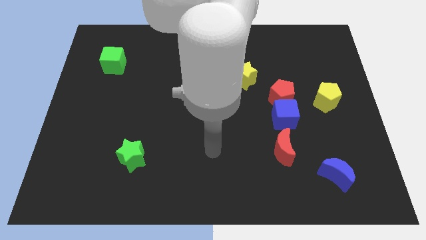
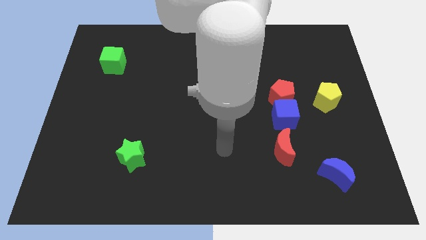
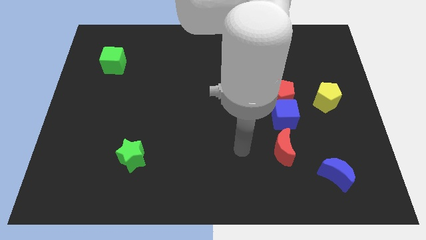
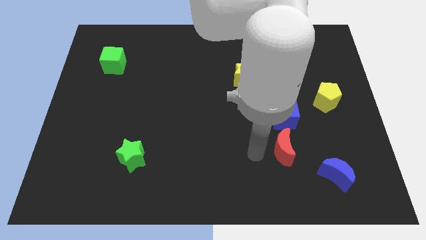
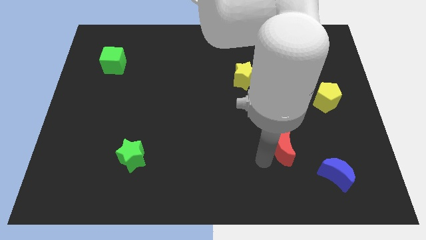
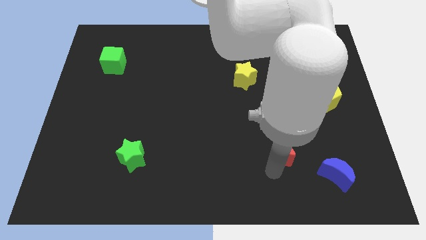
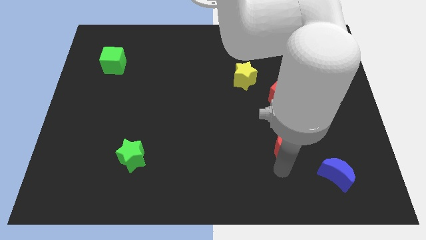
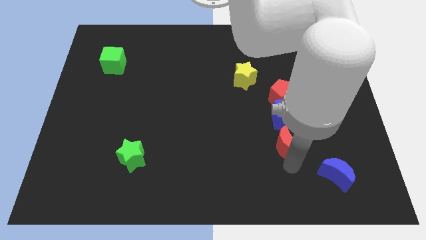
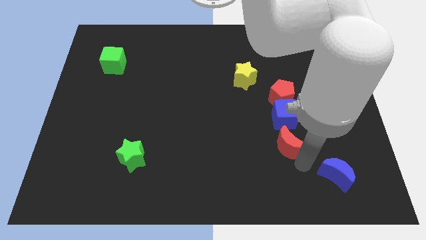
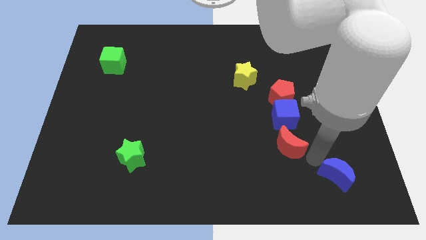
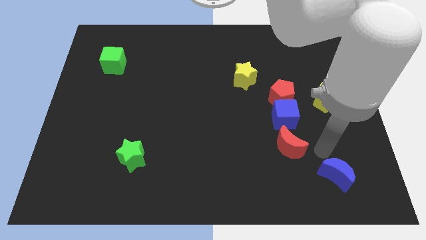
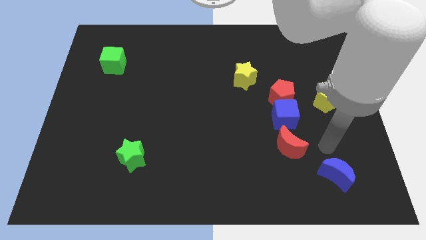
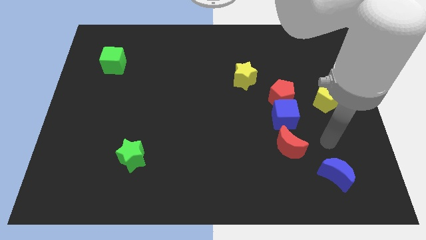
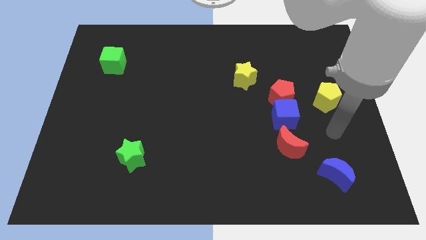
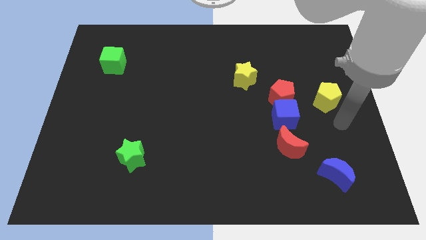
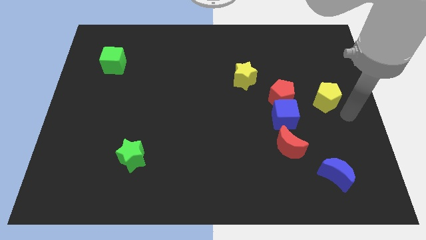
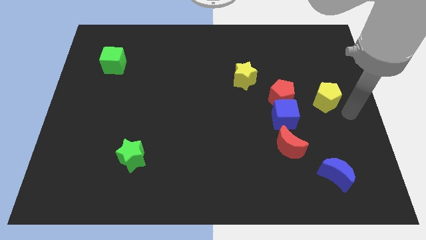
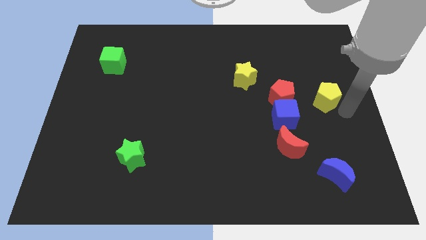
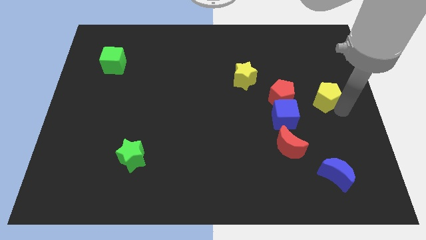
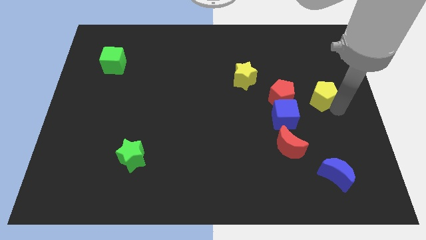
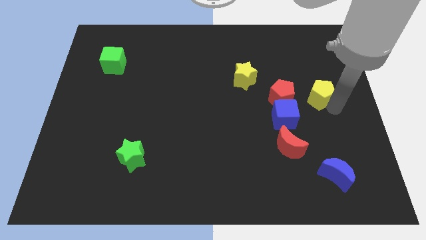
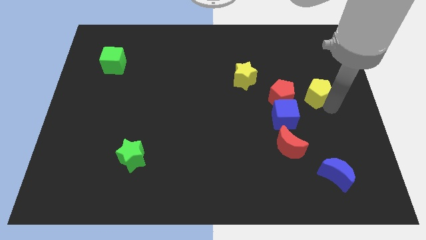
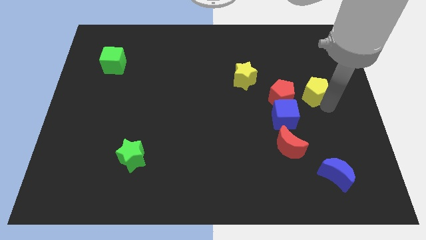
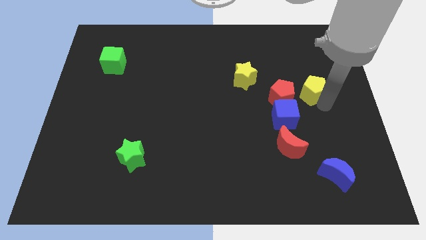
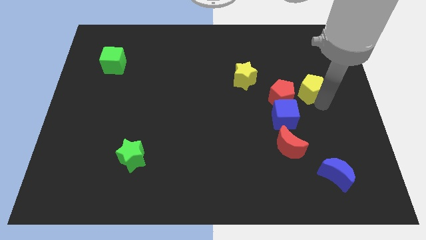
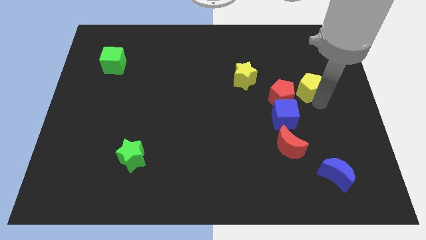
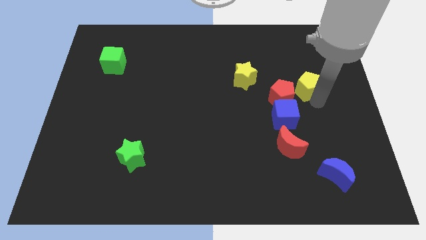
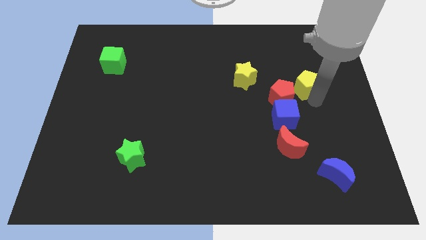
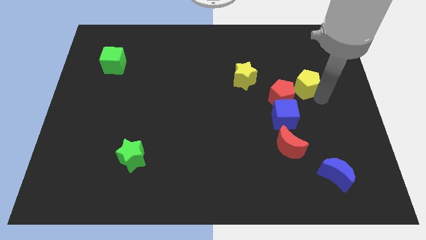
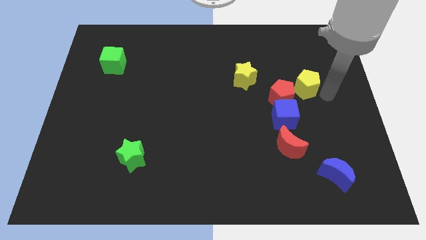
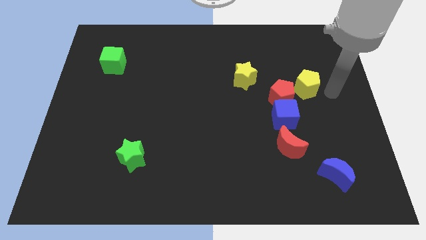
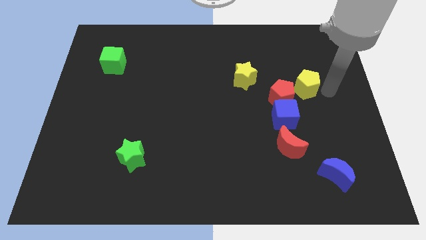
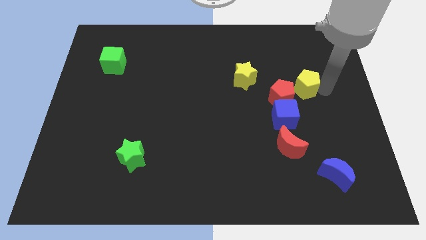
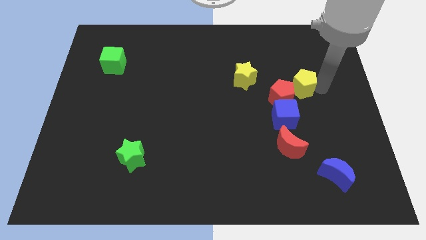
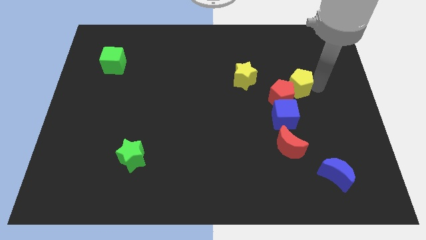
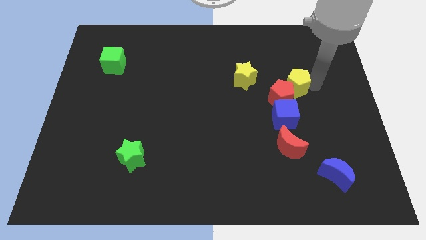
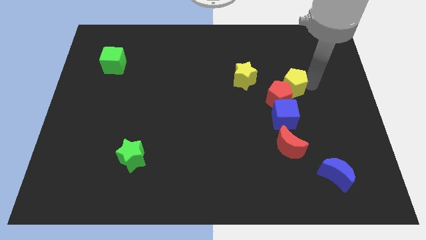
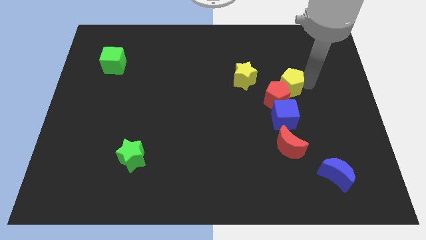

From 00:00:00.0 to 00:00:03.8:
move the yellow pentagon slightly left

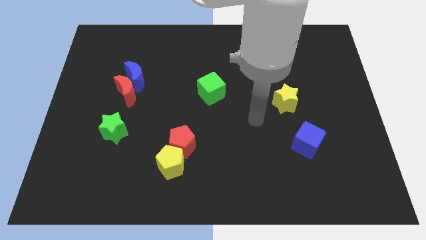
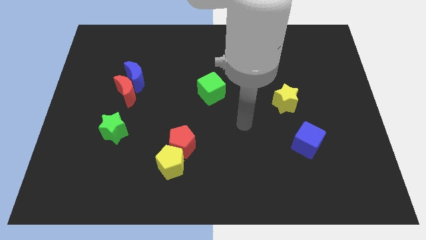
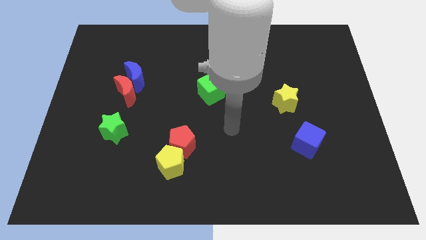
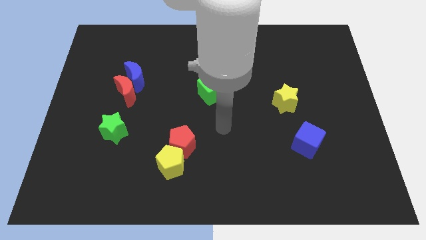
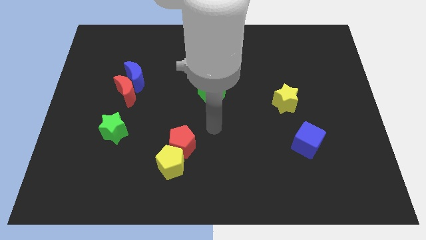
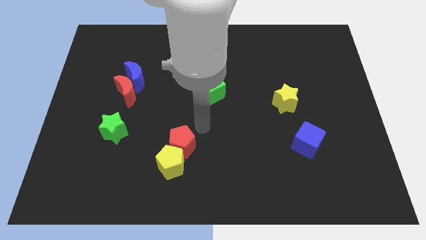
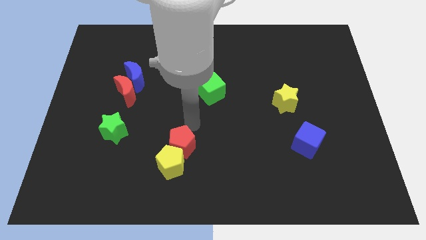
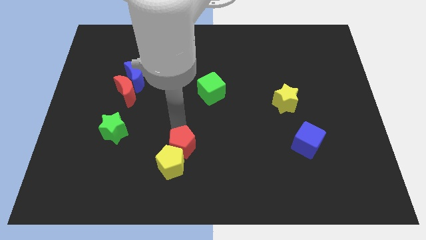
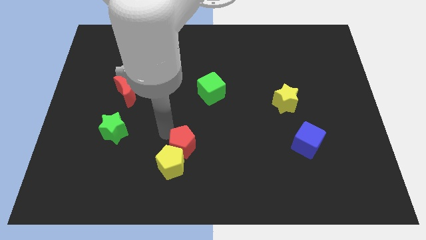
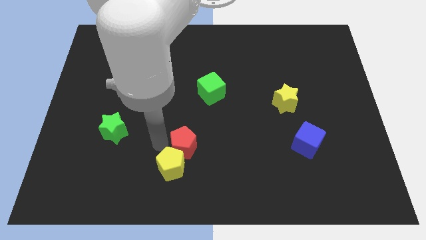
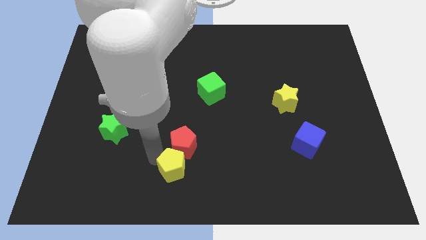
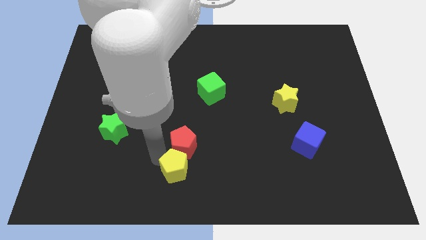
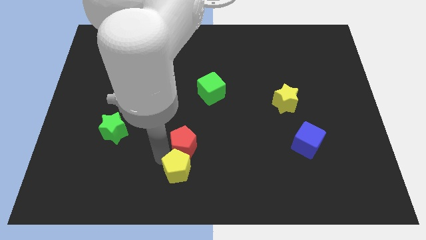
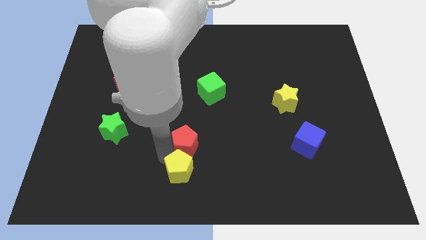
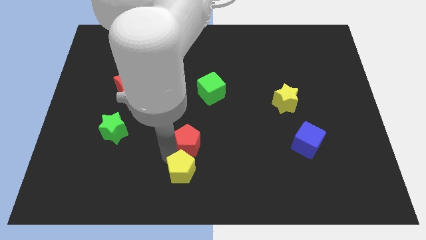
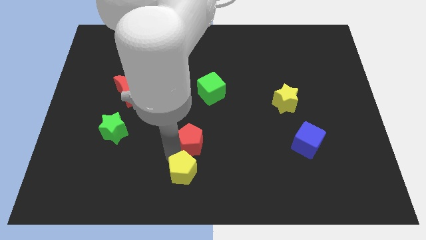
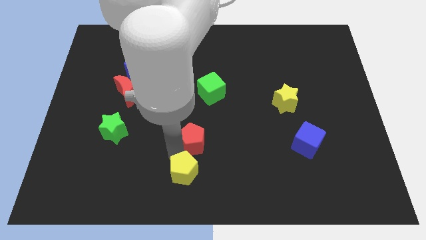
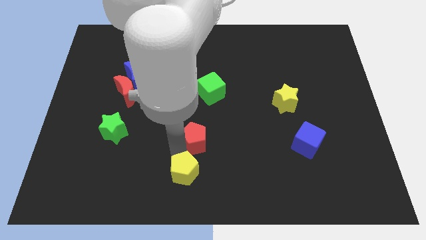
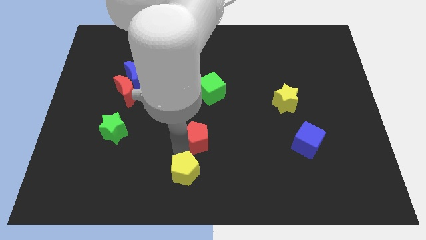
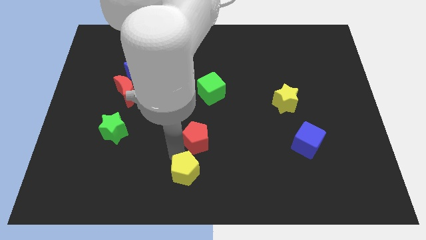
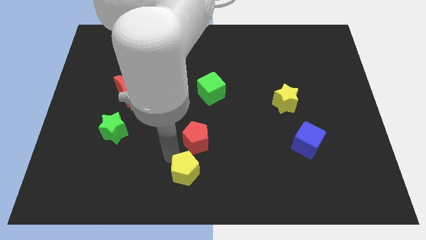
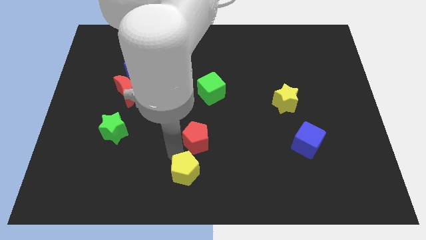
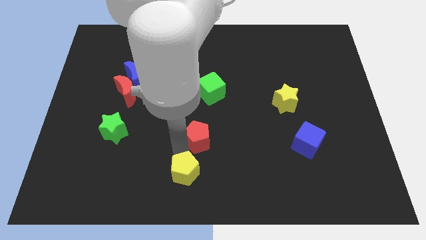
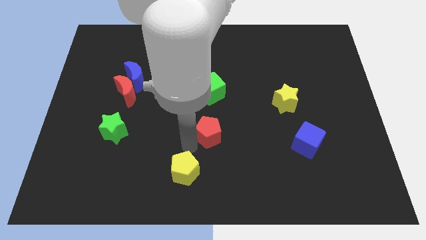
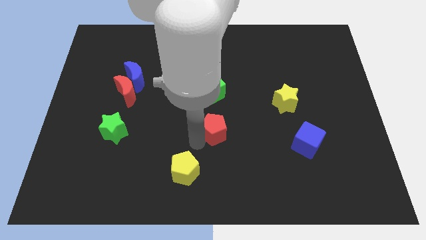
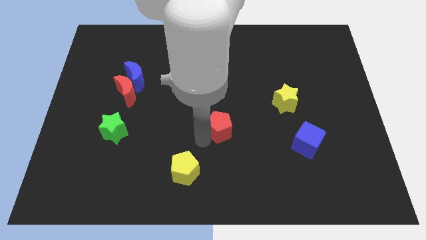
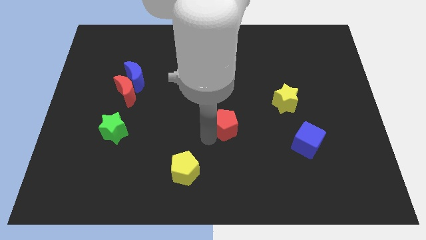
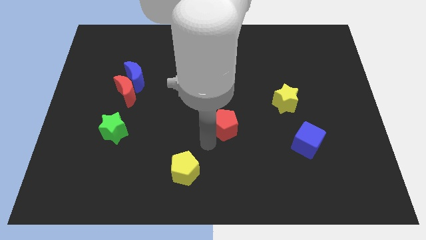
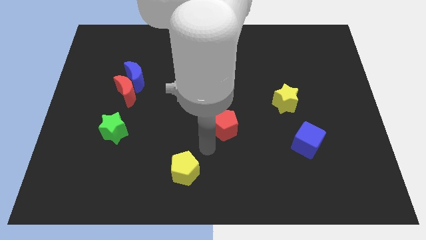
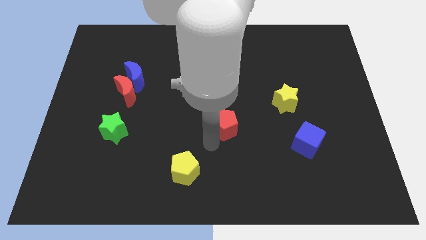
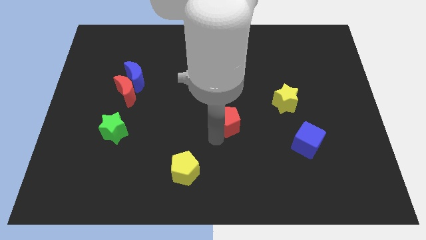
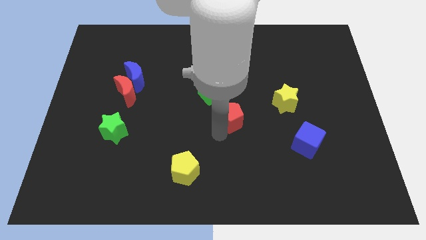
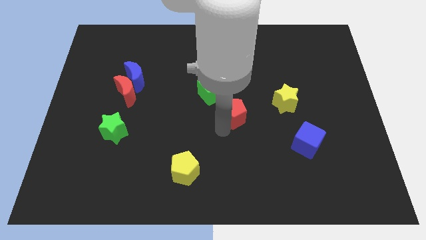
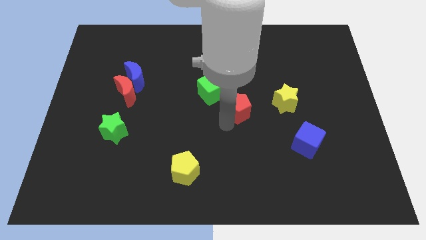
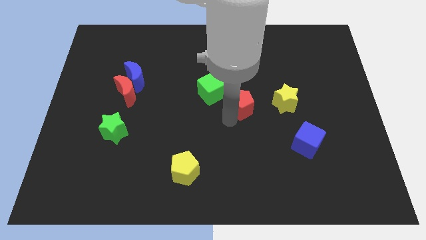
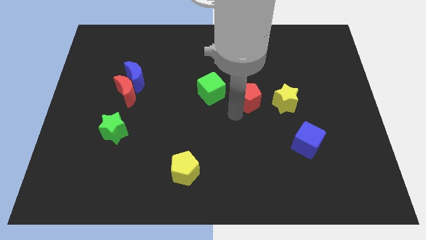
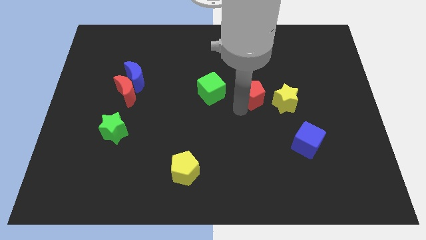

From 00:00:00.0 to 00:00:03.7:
push the red pentagon diagonally upwards and to the right

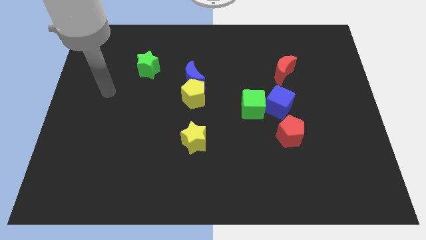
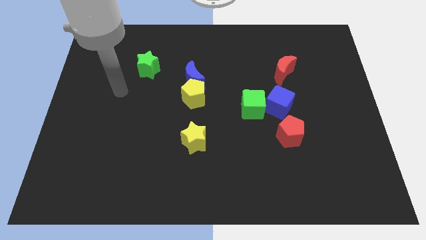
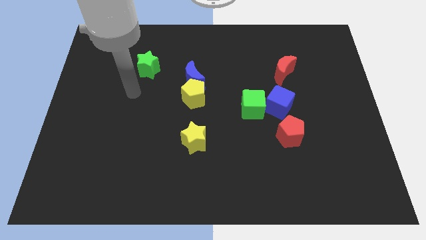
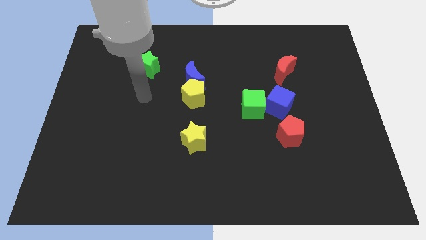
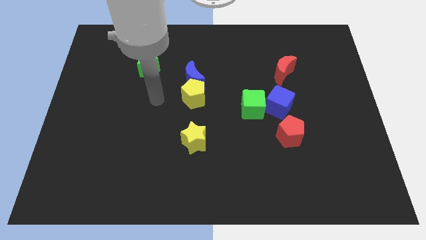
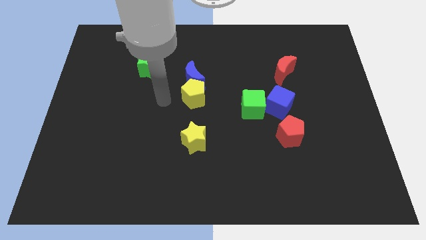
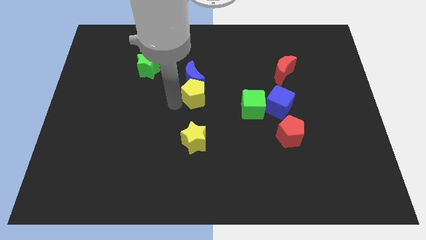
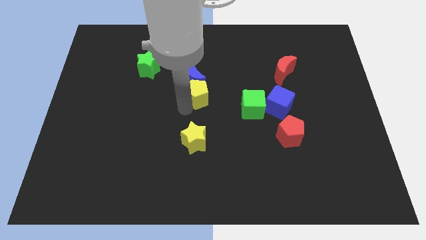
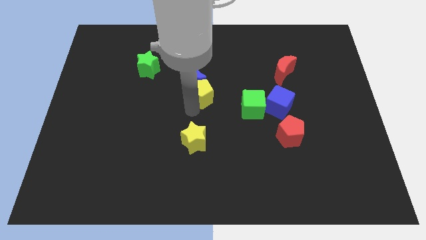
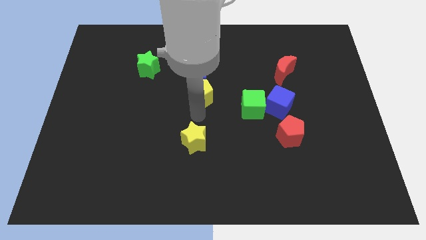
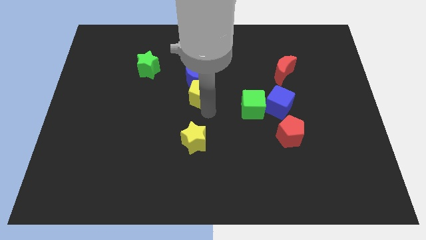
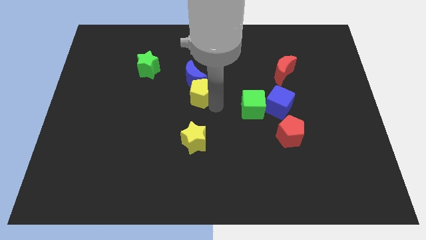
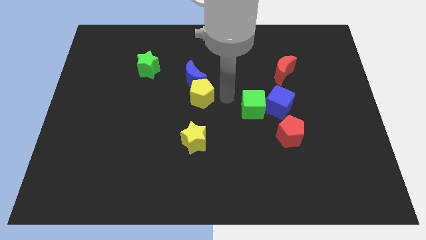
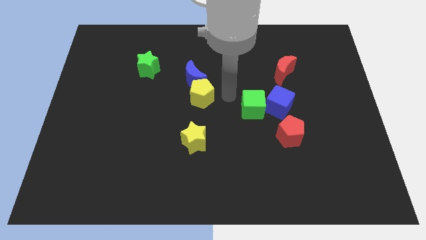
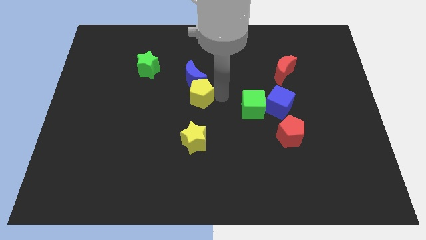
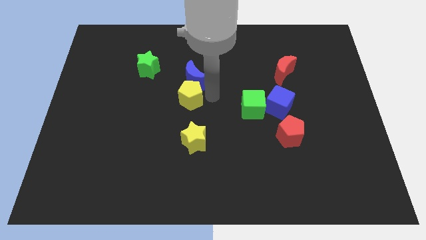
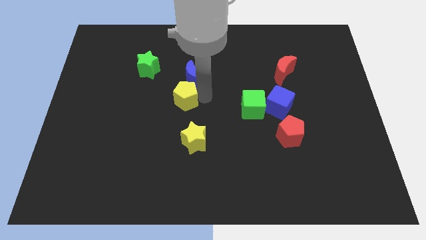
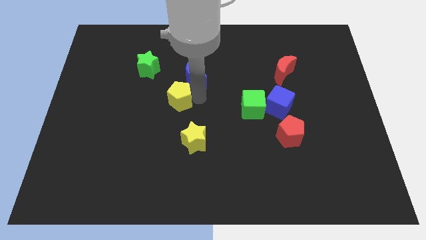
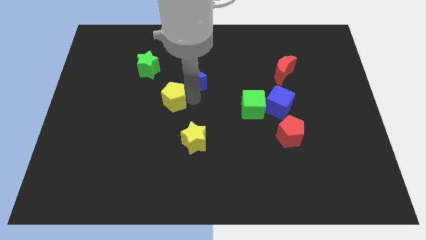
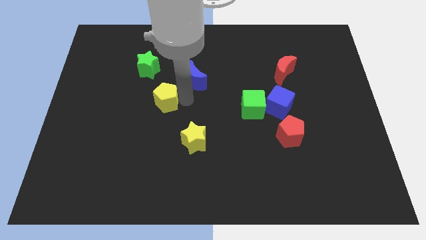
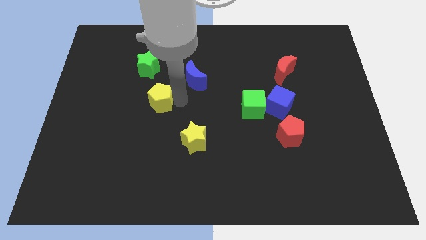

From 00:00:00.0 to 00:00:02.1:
slightly move the yellow pentagon to the left
